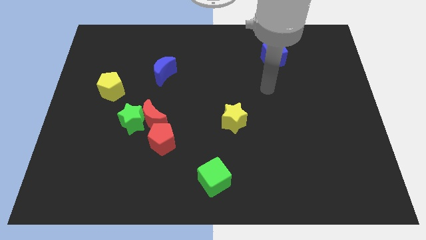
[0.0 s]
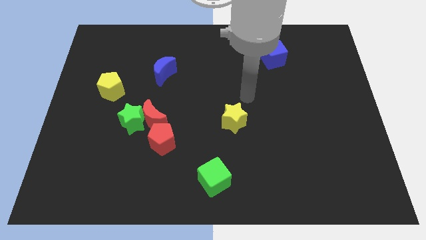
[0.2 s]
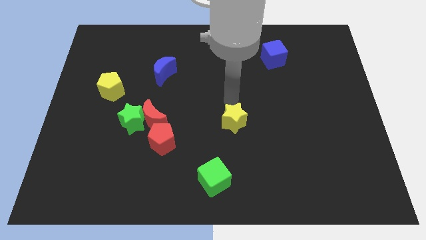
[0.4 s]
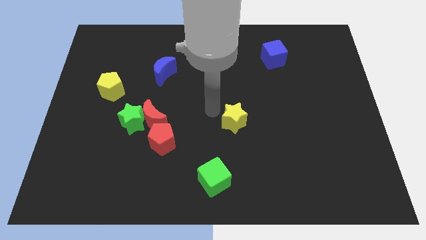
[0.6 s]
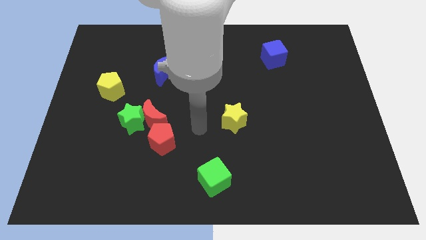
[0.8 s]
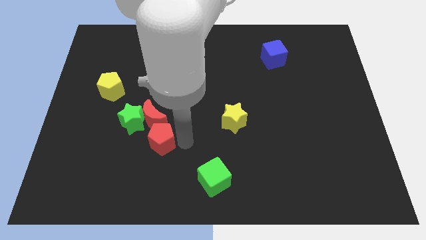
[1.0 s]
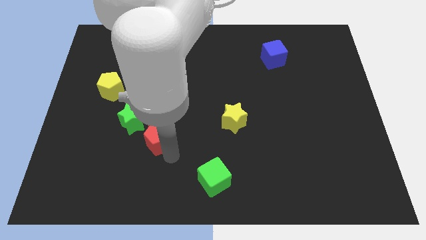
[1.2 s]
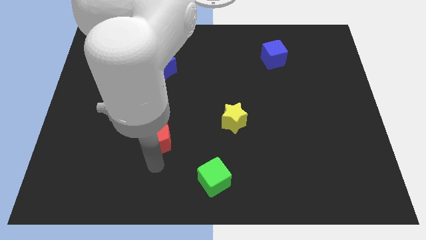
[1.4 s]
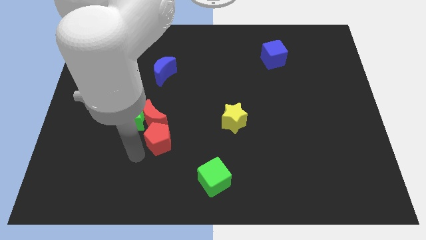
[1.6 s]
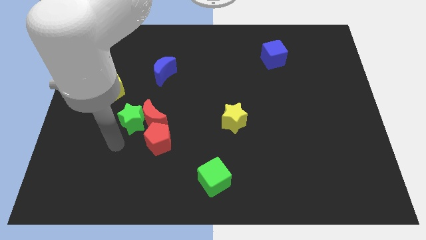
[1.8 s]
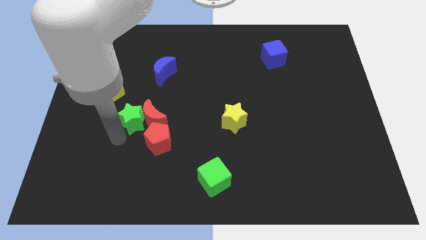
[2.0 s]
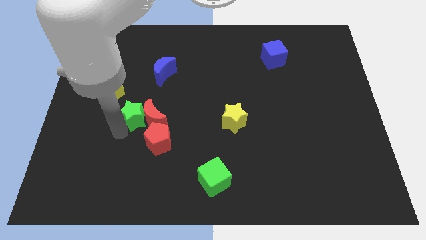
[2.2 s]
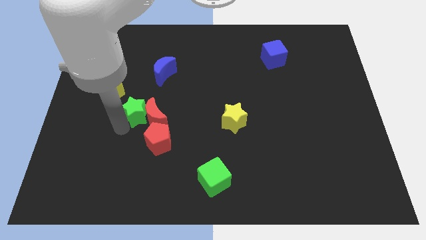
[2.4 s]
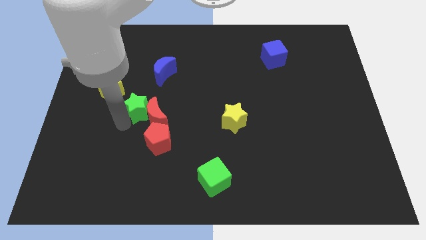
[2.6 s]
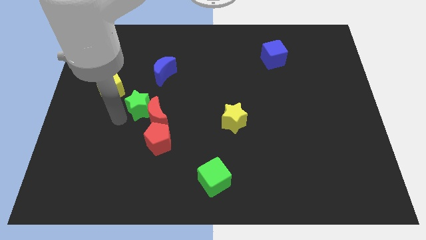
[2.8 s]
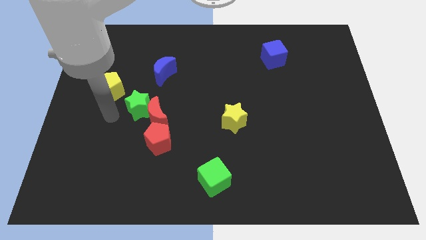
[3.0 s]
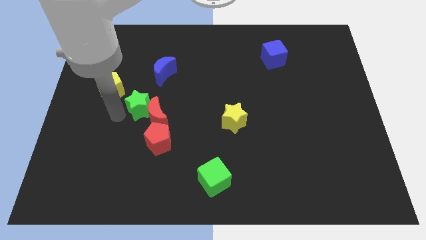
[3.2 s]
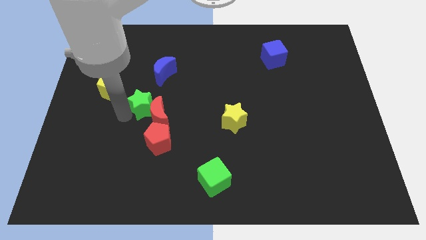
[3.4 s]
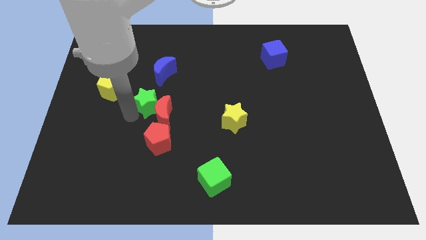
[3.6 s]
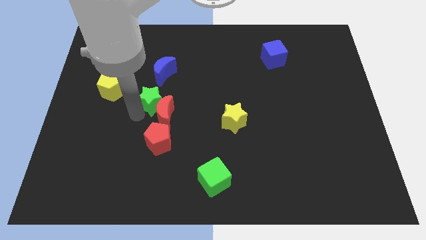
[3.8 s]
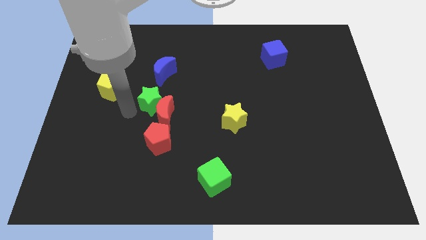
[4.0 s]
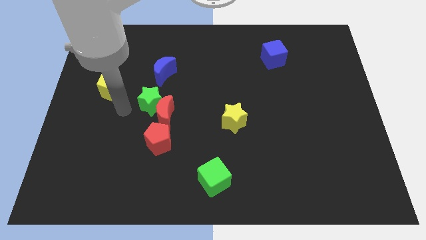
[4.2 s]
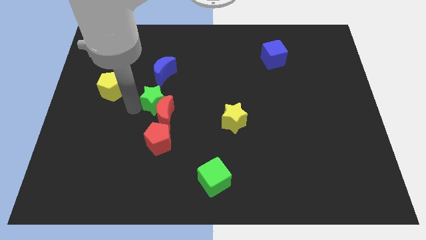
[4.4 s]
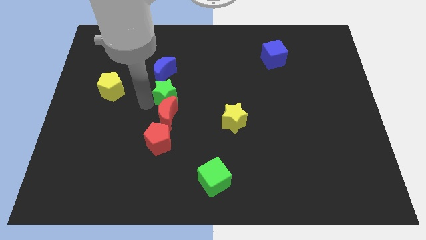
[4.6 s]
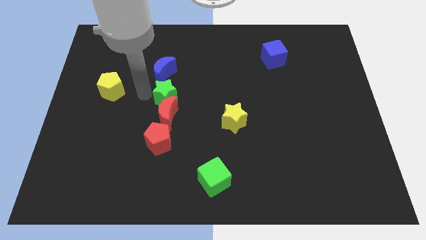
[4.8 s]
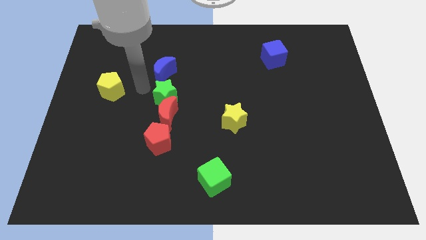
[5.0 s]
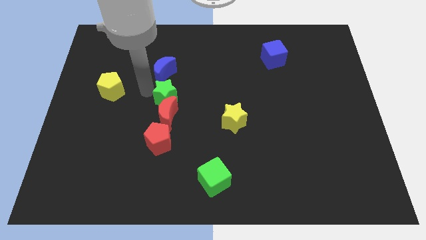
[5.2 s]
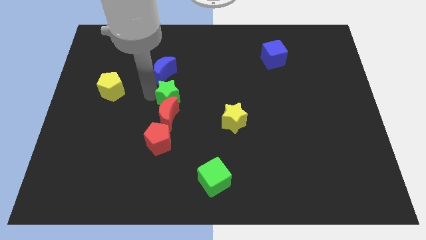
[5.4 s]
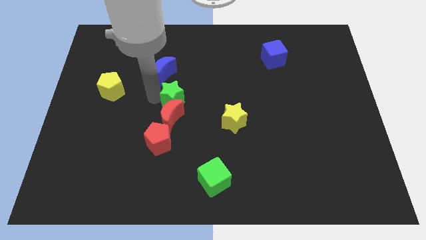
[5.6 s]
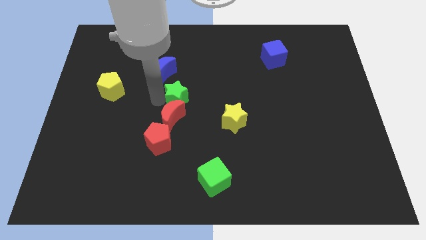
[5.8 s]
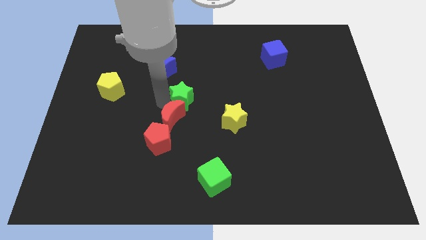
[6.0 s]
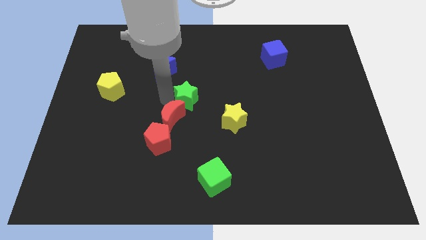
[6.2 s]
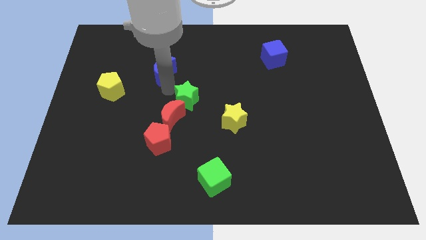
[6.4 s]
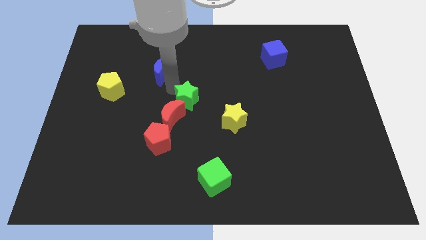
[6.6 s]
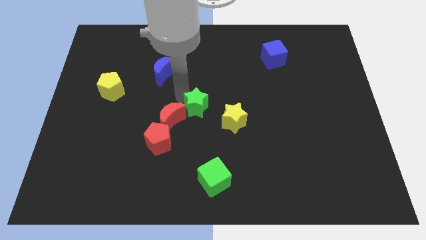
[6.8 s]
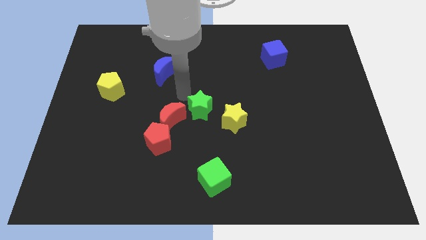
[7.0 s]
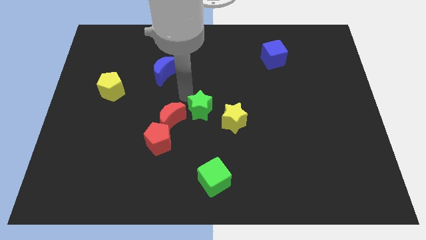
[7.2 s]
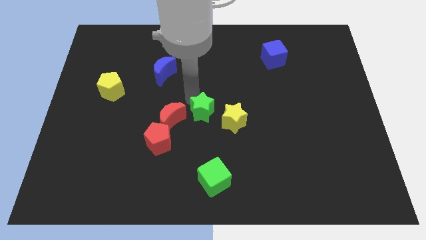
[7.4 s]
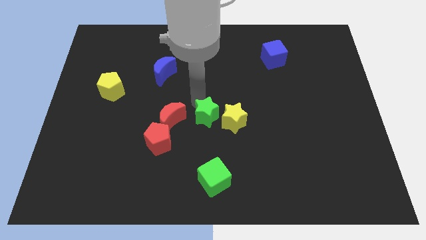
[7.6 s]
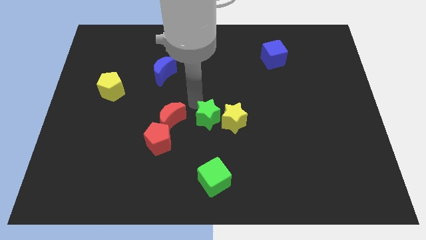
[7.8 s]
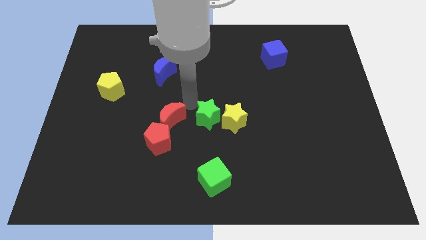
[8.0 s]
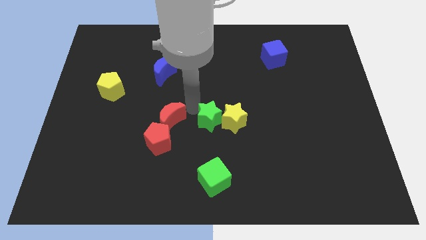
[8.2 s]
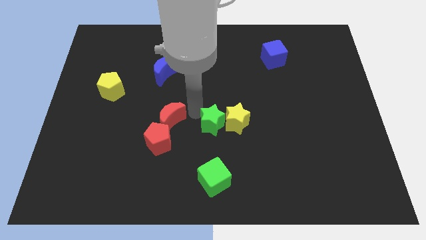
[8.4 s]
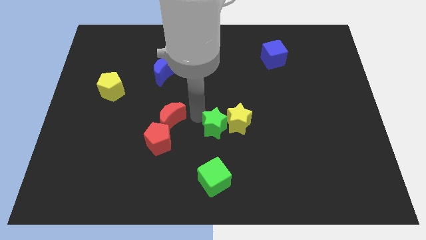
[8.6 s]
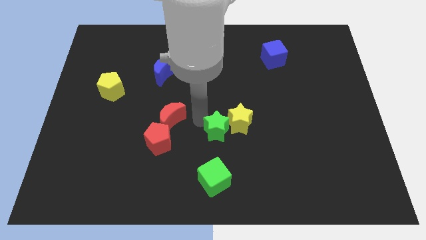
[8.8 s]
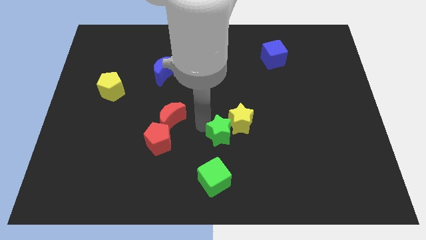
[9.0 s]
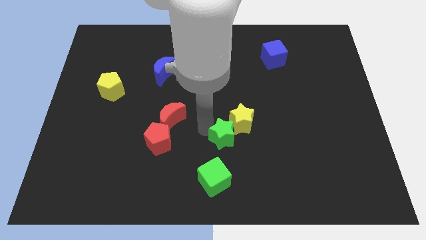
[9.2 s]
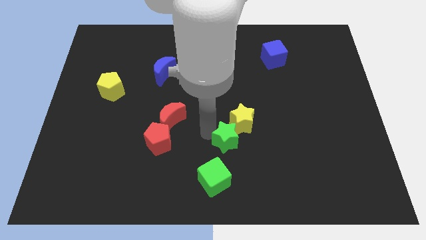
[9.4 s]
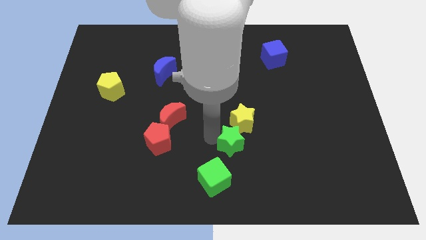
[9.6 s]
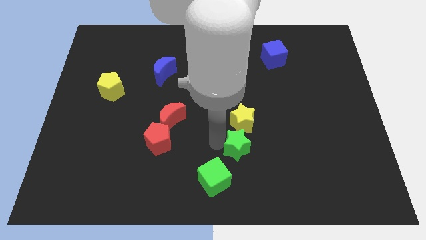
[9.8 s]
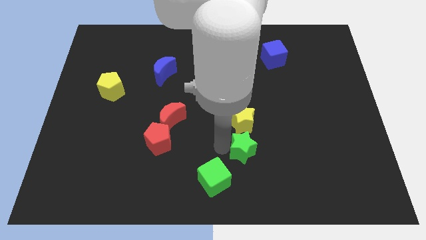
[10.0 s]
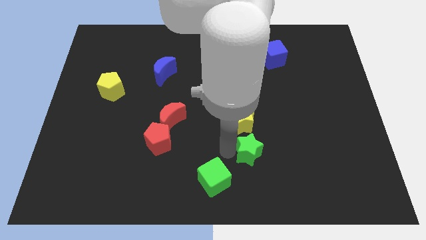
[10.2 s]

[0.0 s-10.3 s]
slide the green star to the bottom right side of the yellow star

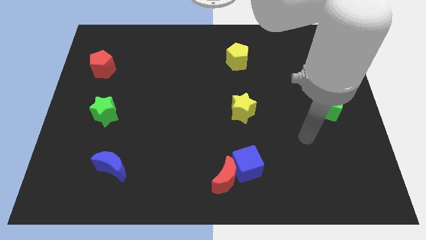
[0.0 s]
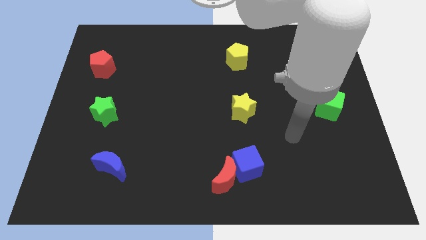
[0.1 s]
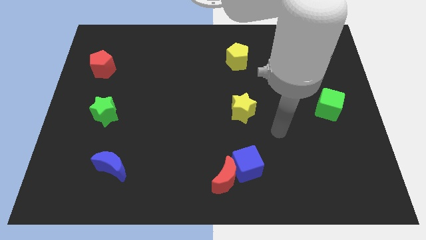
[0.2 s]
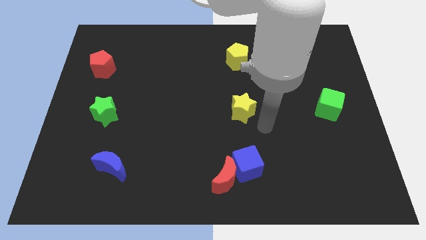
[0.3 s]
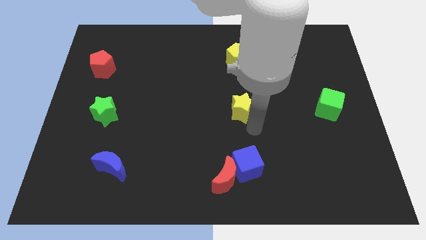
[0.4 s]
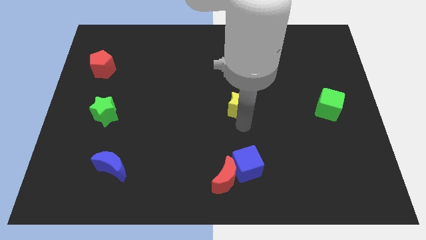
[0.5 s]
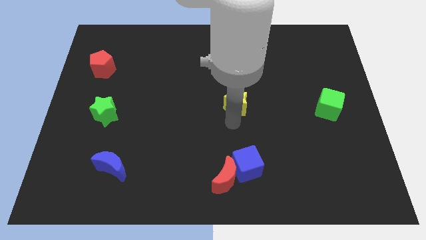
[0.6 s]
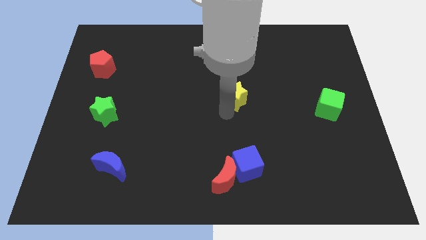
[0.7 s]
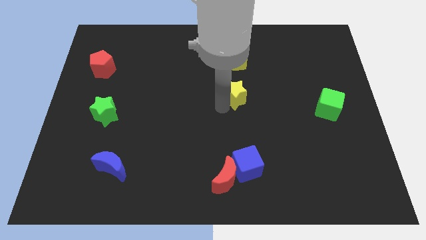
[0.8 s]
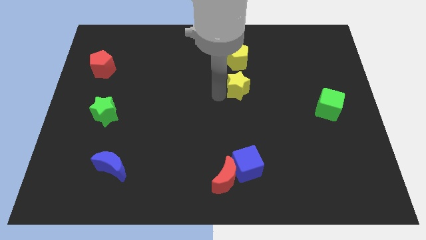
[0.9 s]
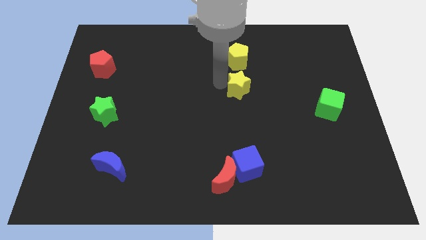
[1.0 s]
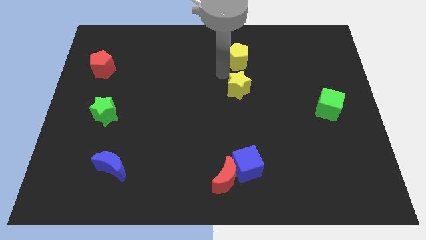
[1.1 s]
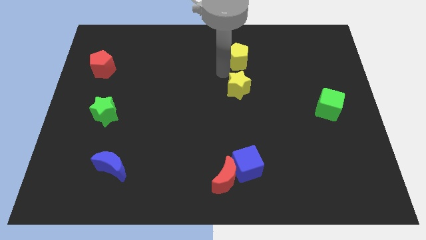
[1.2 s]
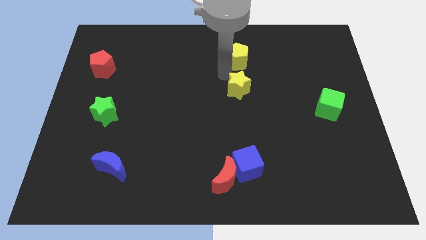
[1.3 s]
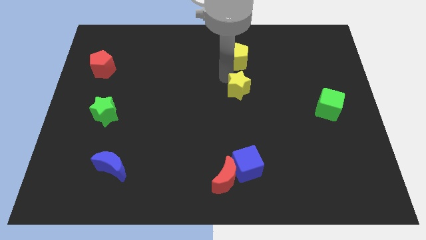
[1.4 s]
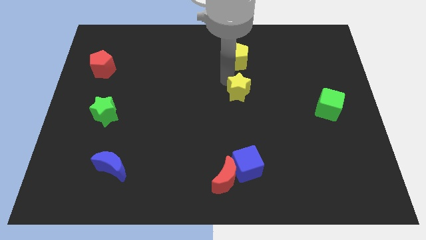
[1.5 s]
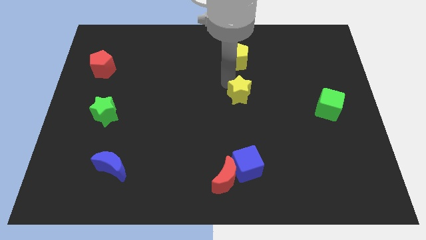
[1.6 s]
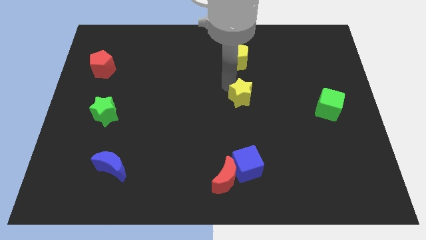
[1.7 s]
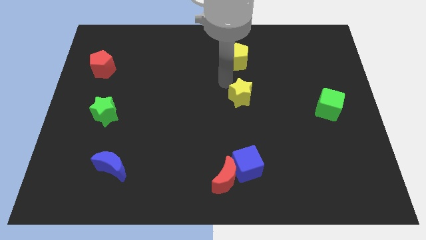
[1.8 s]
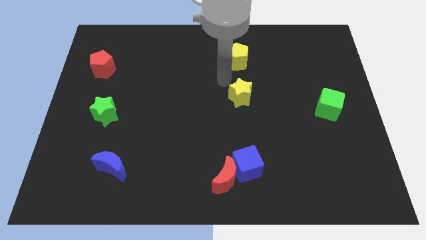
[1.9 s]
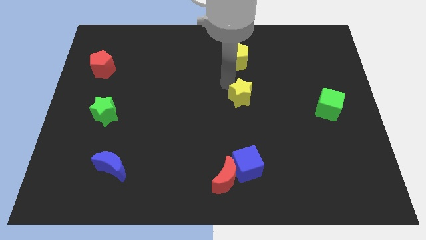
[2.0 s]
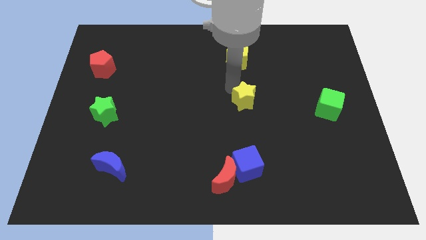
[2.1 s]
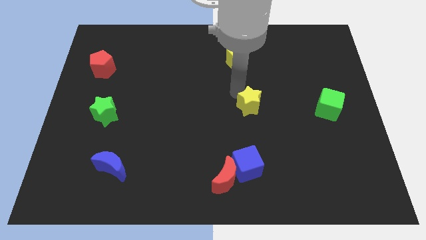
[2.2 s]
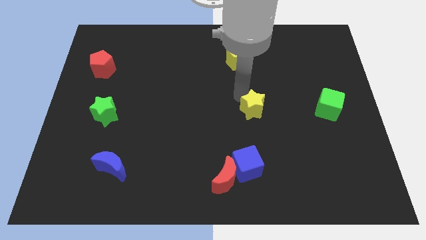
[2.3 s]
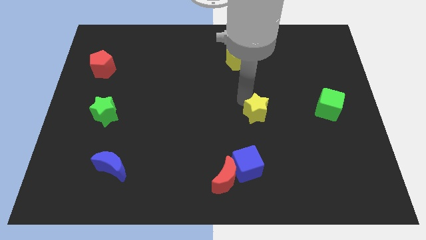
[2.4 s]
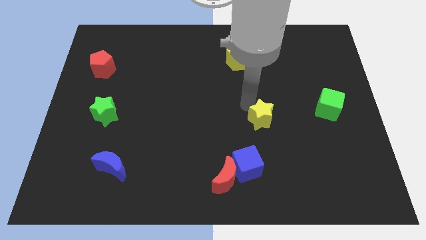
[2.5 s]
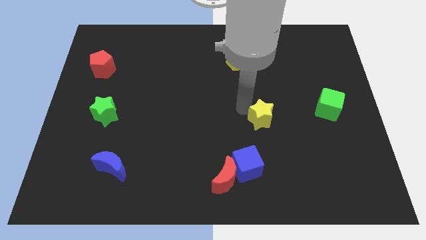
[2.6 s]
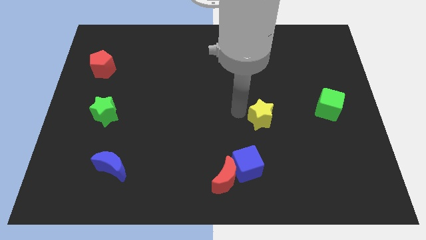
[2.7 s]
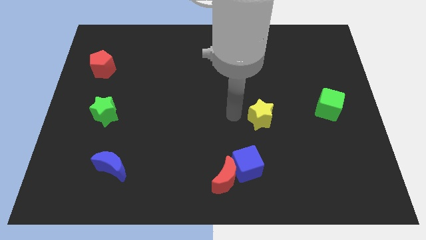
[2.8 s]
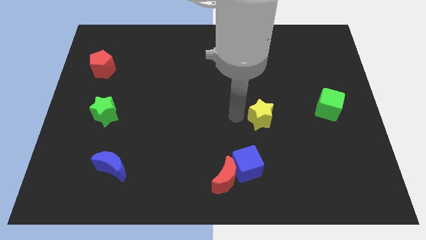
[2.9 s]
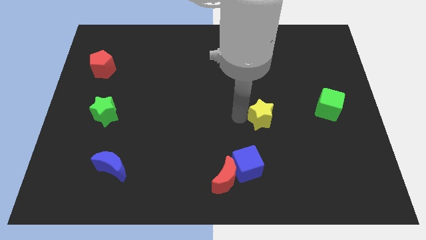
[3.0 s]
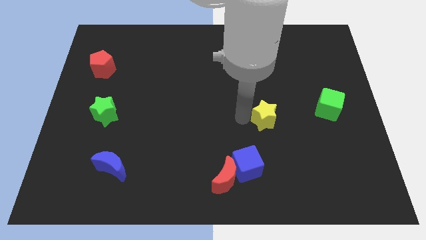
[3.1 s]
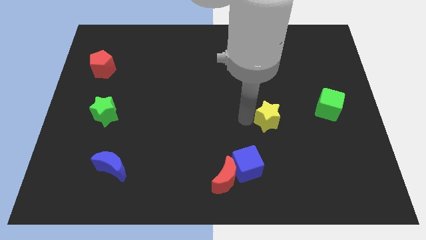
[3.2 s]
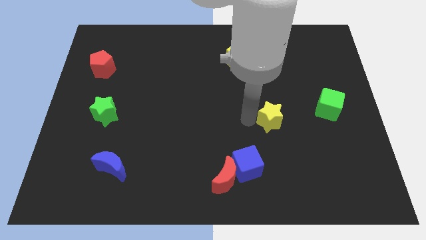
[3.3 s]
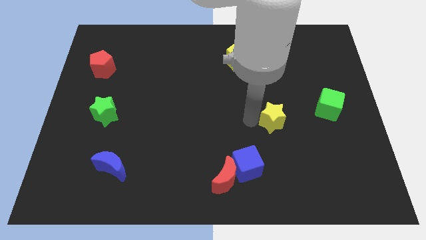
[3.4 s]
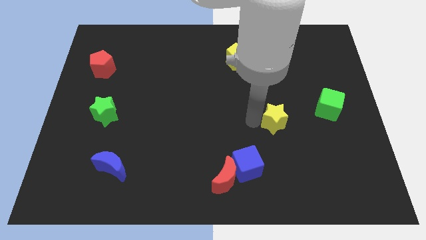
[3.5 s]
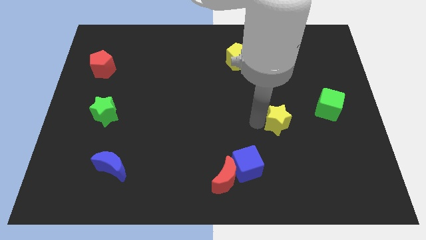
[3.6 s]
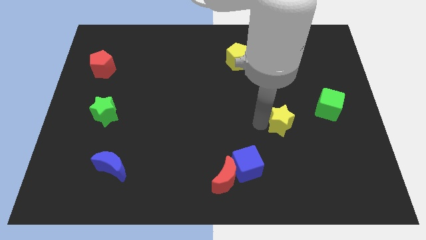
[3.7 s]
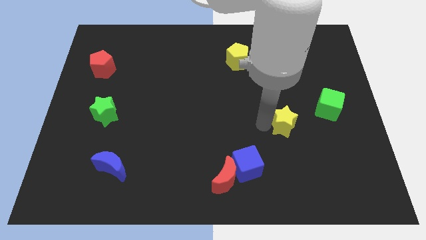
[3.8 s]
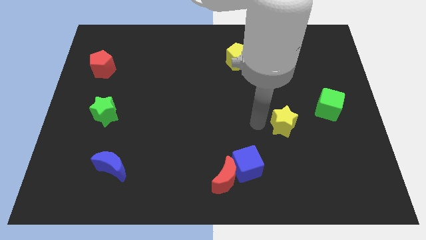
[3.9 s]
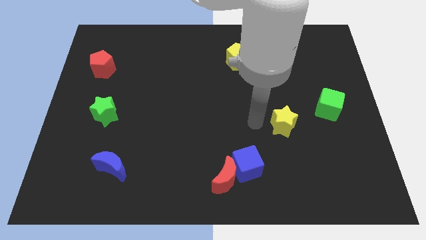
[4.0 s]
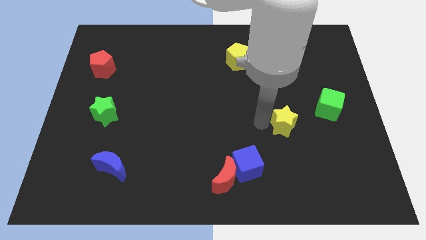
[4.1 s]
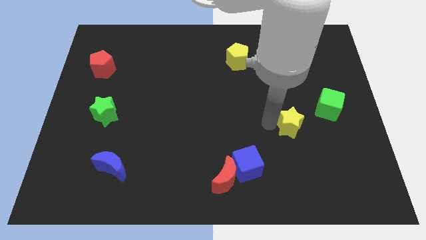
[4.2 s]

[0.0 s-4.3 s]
slide the yellow star to the bottom left side of the green cube
